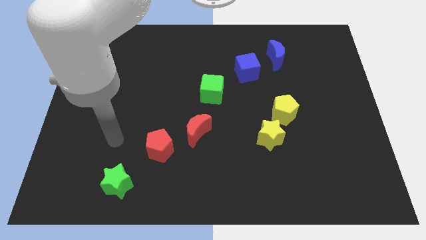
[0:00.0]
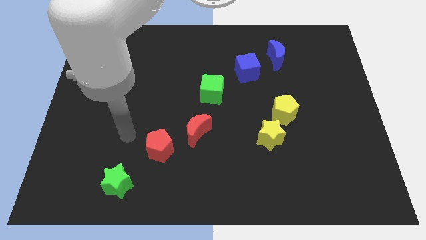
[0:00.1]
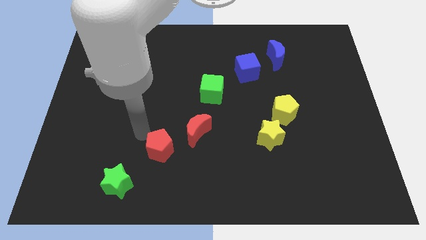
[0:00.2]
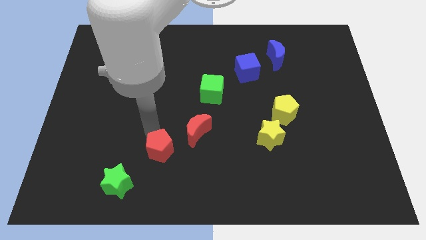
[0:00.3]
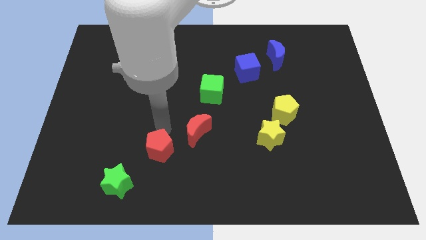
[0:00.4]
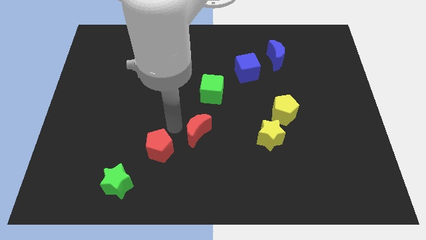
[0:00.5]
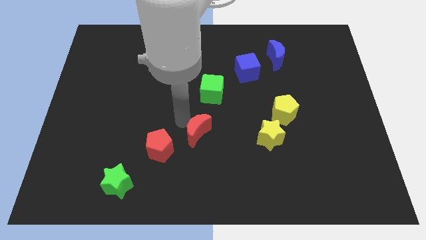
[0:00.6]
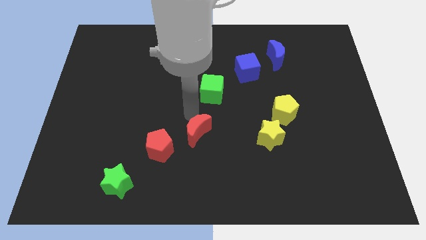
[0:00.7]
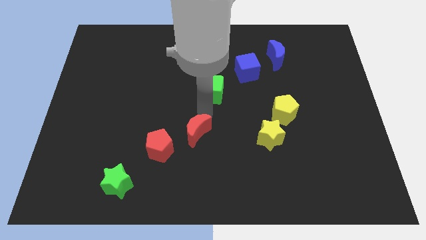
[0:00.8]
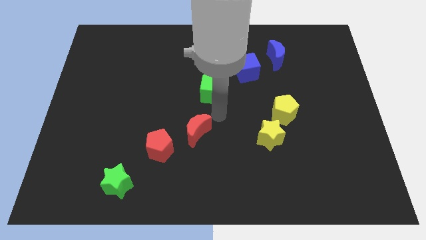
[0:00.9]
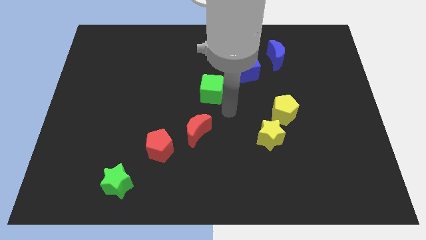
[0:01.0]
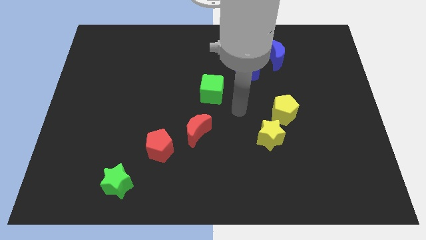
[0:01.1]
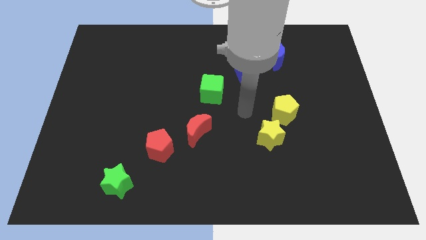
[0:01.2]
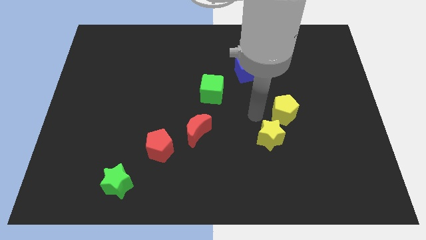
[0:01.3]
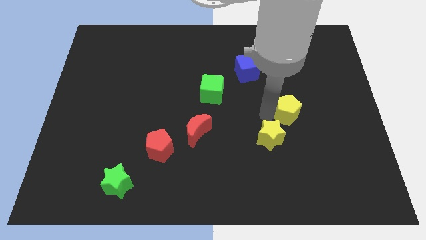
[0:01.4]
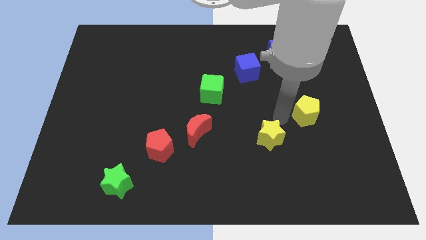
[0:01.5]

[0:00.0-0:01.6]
pull the yellow star apart from the yellow pentagon

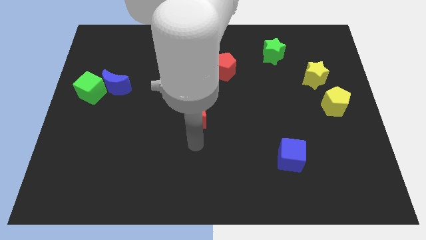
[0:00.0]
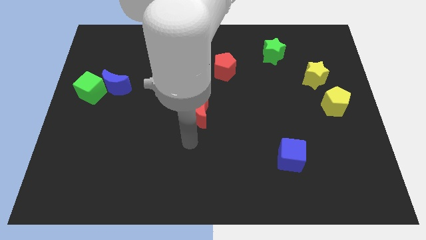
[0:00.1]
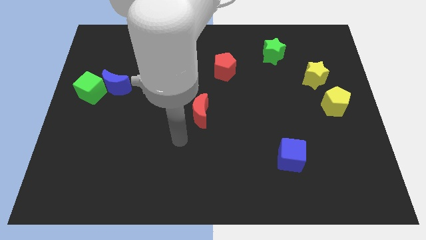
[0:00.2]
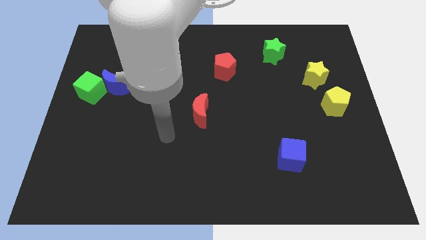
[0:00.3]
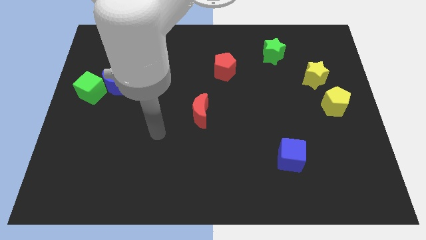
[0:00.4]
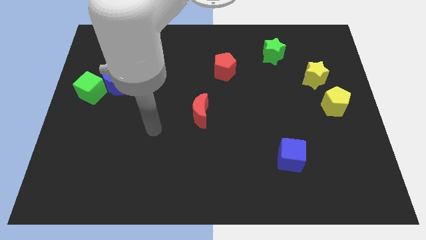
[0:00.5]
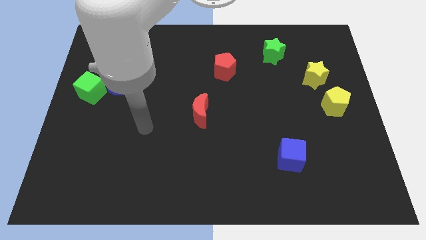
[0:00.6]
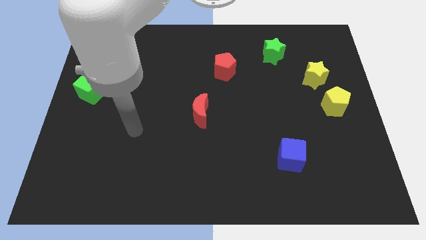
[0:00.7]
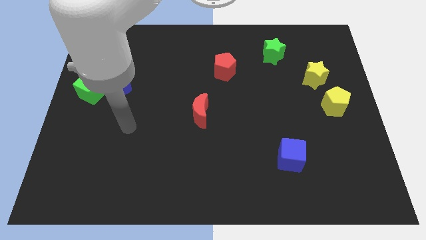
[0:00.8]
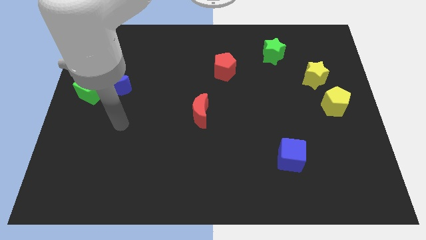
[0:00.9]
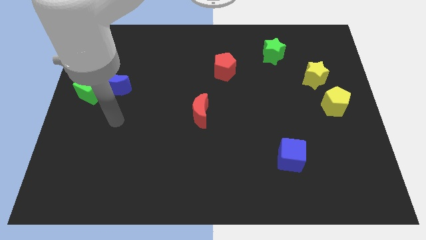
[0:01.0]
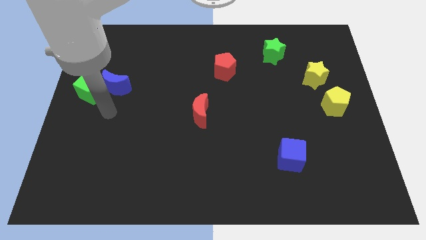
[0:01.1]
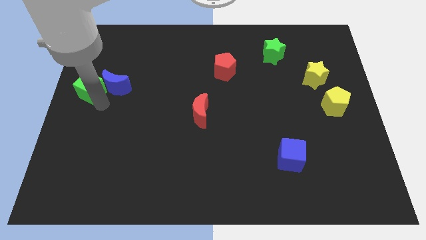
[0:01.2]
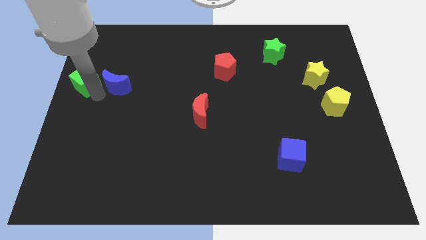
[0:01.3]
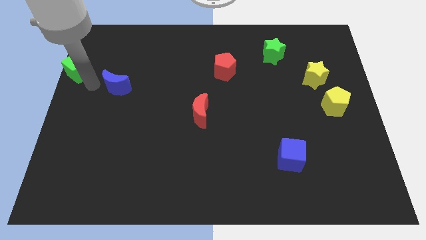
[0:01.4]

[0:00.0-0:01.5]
move the blue moon away from the green cube

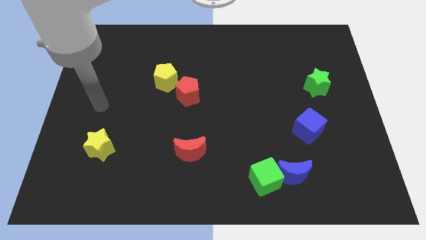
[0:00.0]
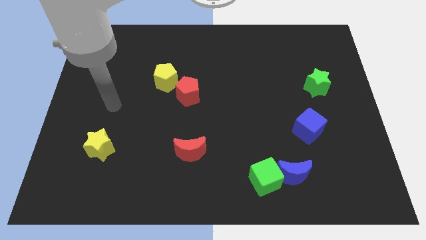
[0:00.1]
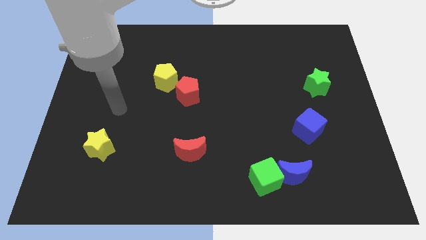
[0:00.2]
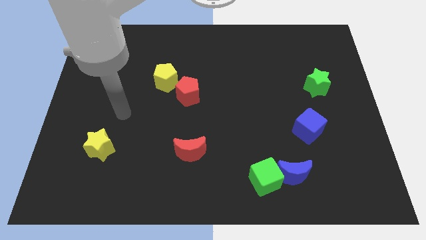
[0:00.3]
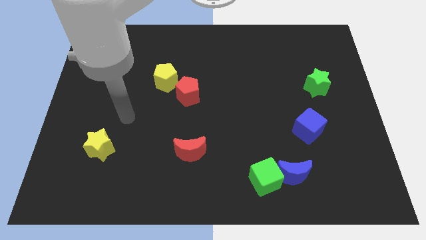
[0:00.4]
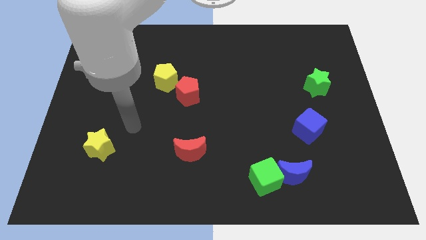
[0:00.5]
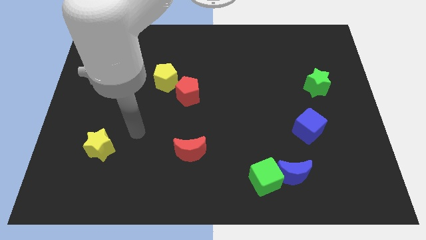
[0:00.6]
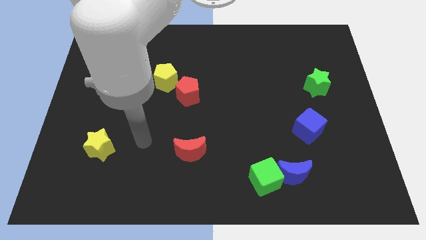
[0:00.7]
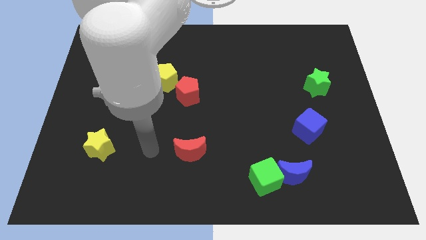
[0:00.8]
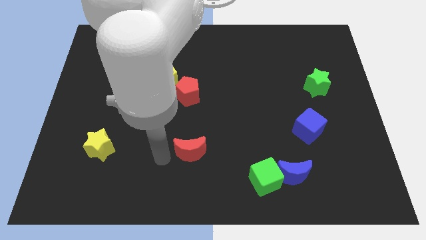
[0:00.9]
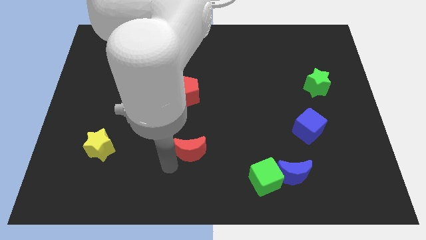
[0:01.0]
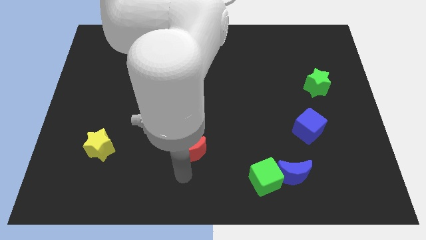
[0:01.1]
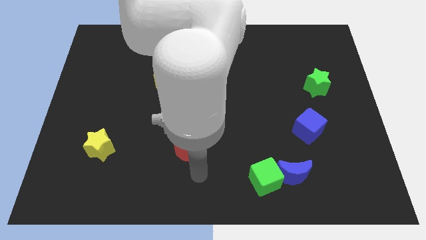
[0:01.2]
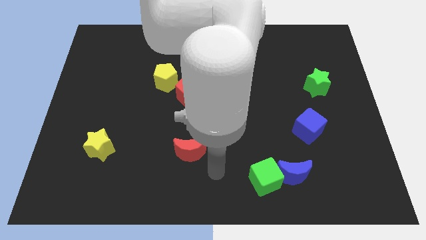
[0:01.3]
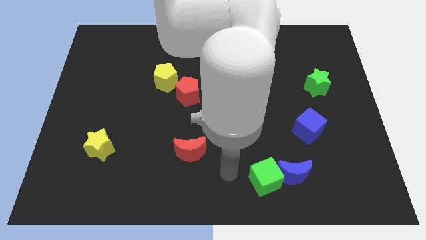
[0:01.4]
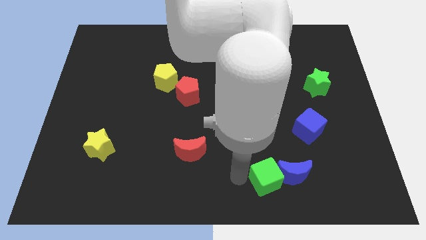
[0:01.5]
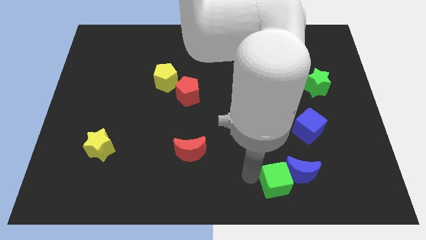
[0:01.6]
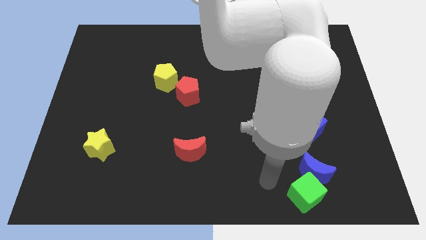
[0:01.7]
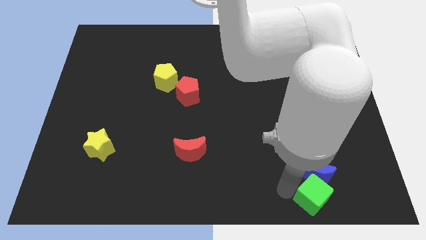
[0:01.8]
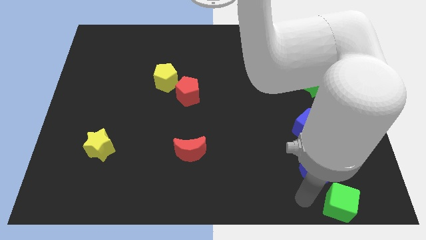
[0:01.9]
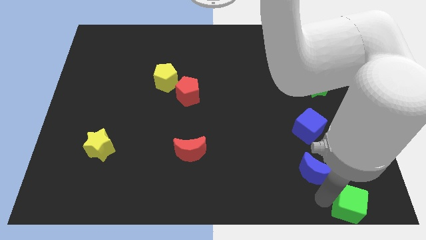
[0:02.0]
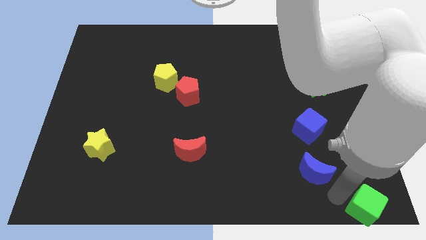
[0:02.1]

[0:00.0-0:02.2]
pull the blue moon apart from the green cube

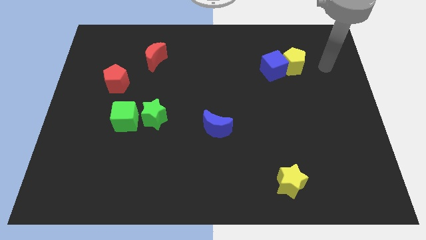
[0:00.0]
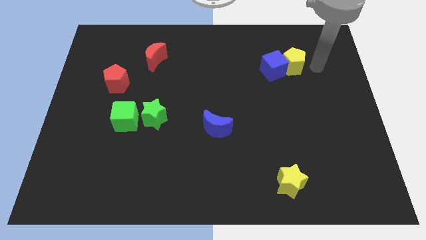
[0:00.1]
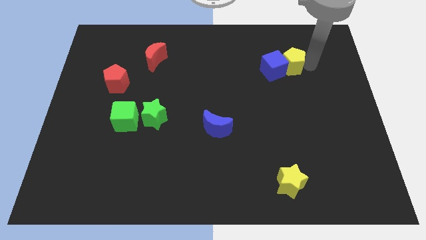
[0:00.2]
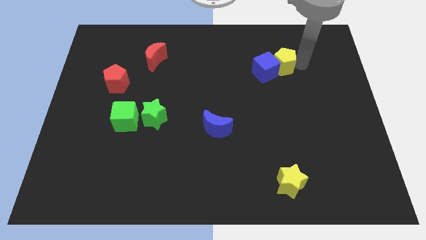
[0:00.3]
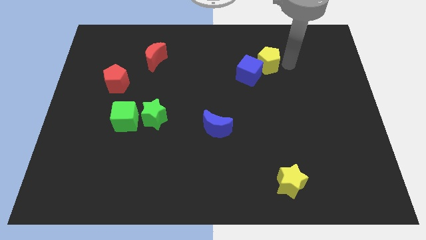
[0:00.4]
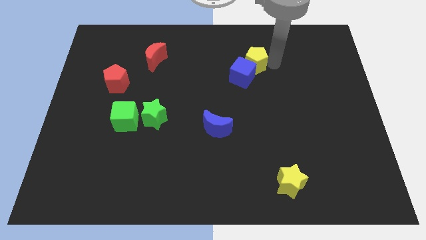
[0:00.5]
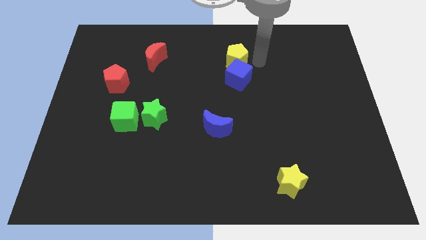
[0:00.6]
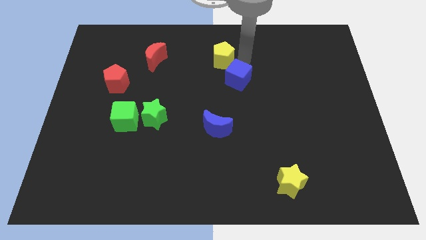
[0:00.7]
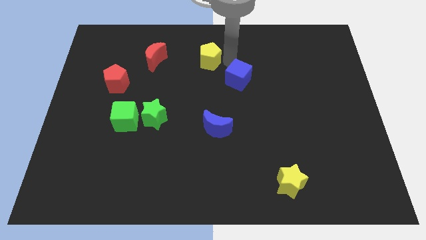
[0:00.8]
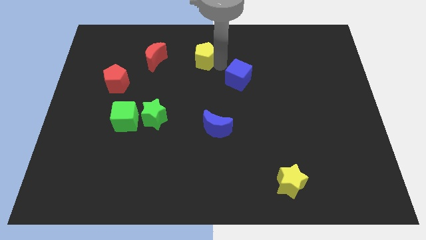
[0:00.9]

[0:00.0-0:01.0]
move the blue cube away from the yellow pentagon

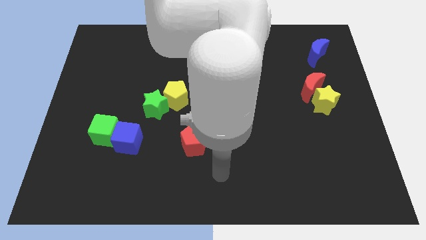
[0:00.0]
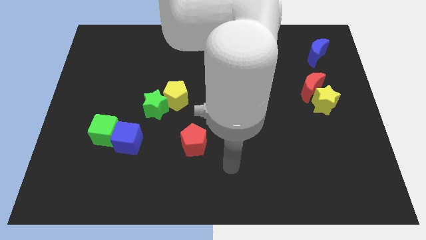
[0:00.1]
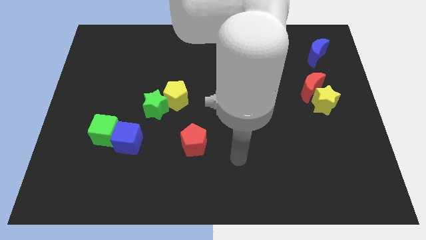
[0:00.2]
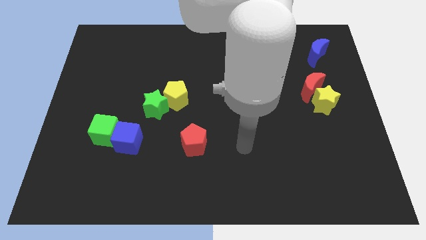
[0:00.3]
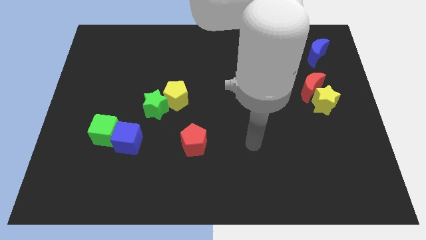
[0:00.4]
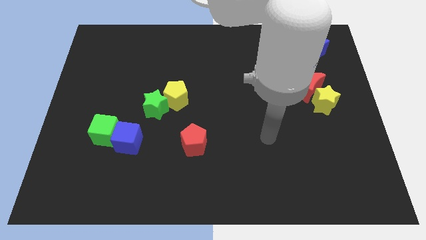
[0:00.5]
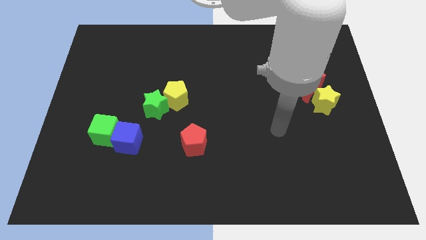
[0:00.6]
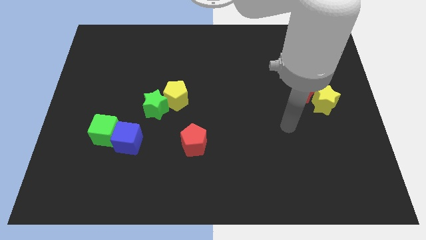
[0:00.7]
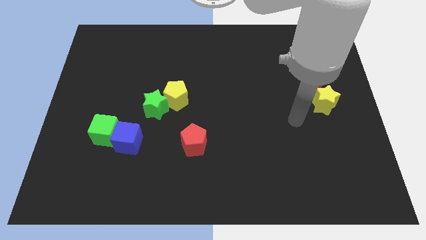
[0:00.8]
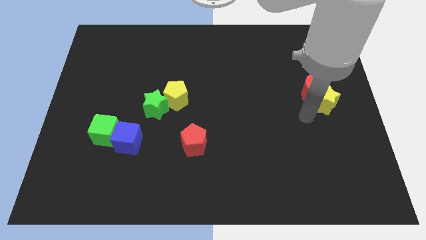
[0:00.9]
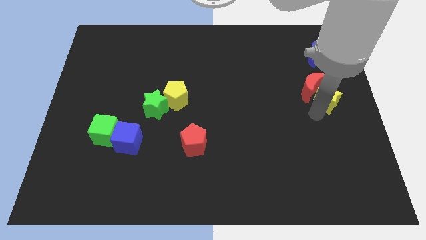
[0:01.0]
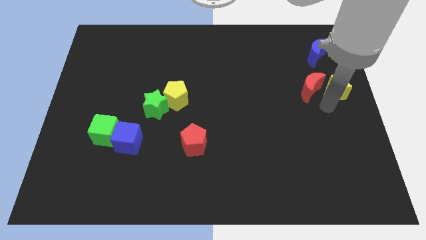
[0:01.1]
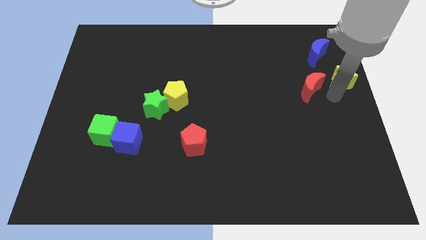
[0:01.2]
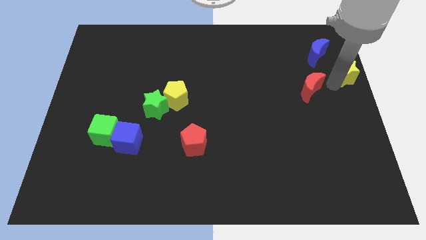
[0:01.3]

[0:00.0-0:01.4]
pull the red moon apart from the yellow star

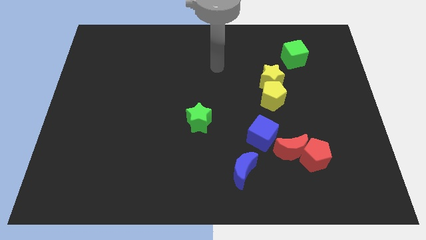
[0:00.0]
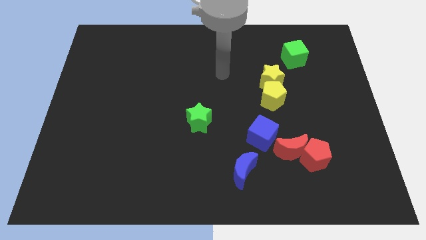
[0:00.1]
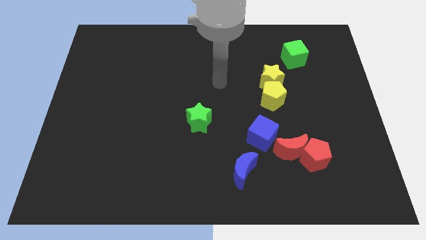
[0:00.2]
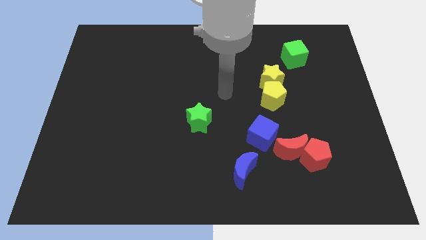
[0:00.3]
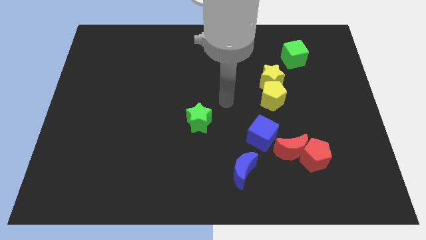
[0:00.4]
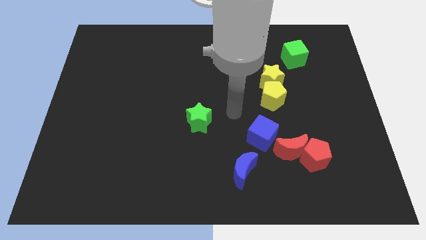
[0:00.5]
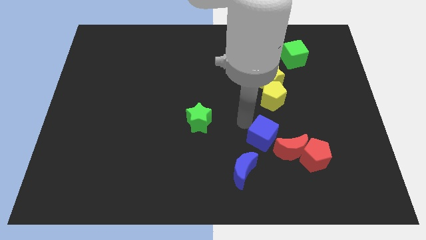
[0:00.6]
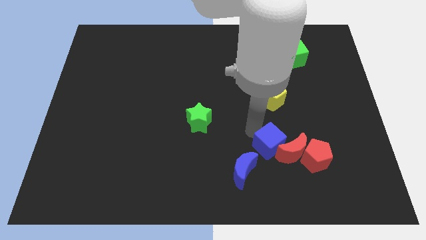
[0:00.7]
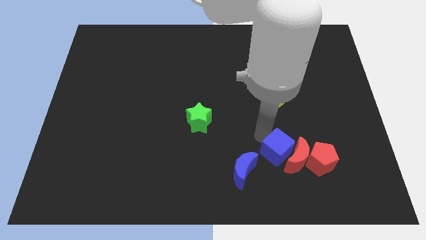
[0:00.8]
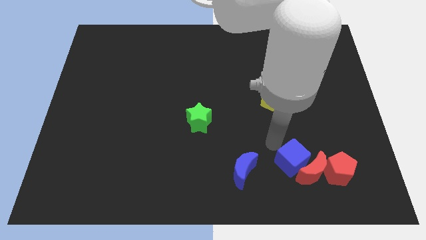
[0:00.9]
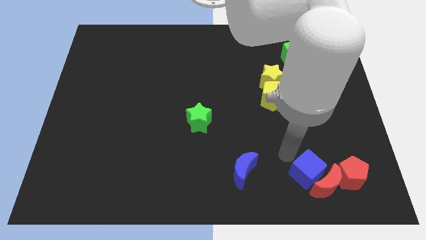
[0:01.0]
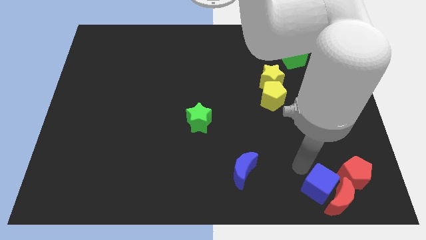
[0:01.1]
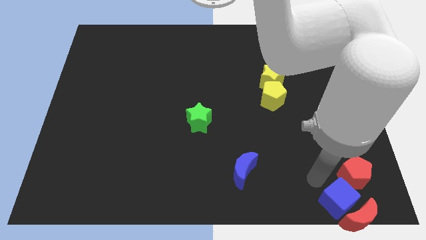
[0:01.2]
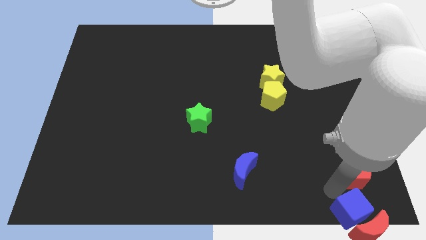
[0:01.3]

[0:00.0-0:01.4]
separate the red pentagon from the red moon

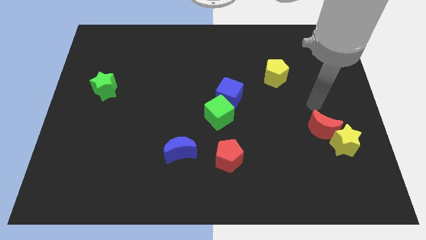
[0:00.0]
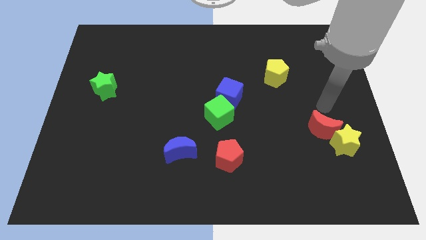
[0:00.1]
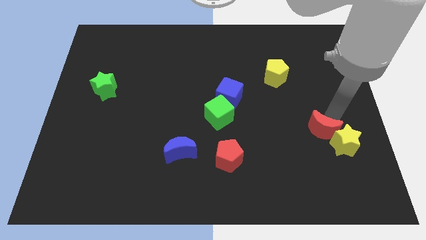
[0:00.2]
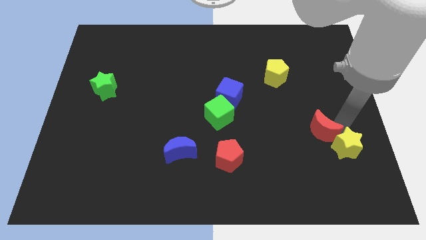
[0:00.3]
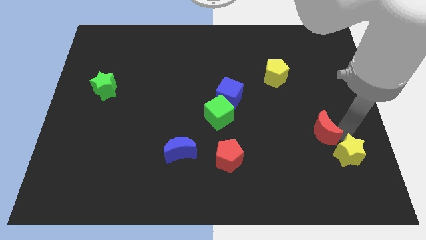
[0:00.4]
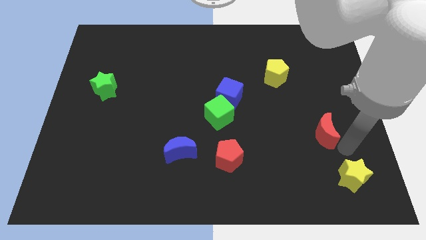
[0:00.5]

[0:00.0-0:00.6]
separate the red moon from the yellow star
